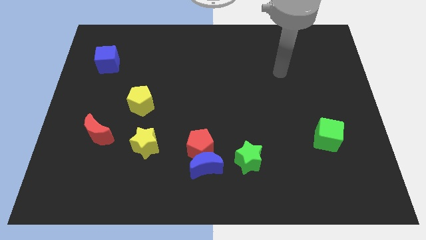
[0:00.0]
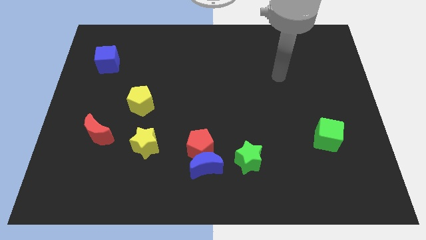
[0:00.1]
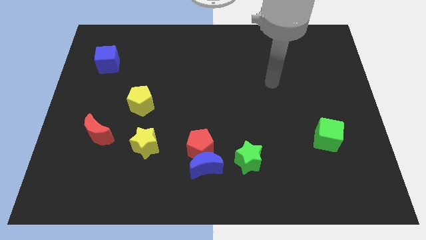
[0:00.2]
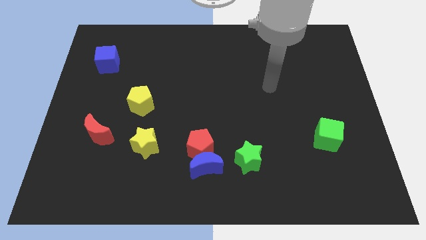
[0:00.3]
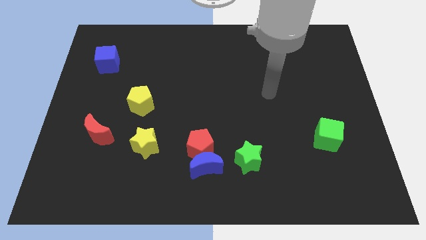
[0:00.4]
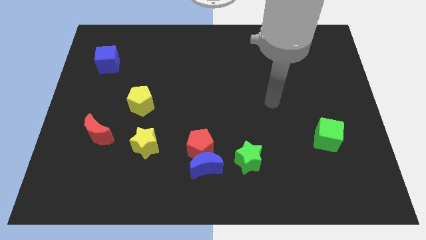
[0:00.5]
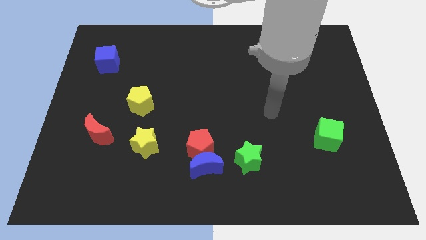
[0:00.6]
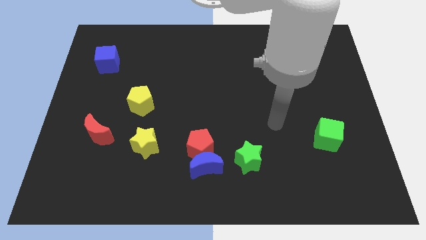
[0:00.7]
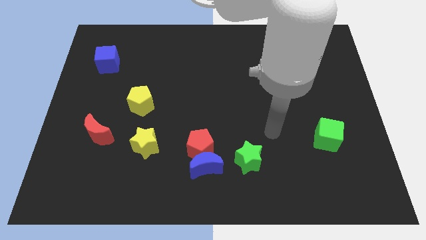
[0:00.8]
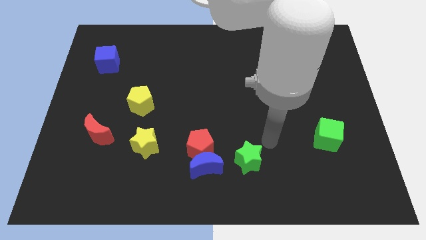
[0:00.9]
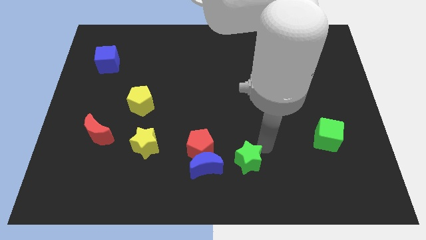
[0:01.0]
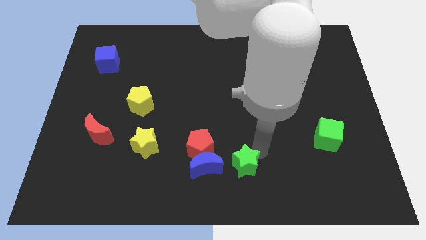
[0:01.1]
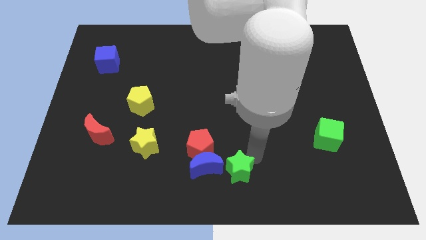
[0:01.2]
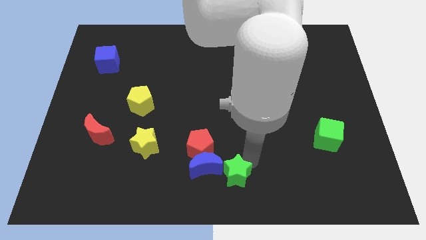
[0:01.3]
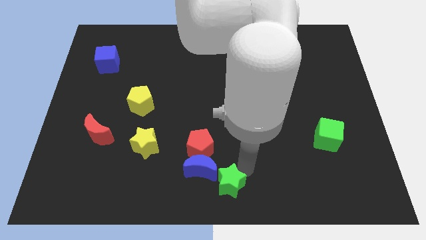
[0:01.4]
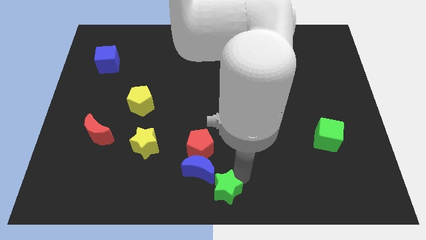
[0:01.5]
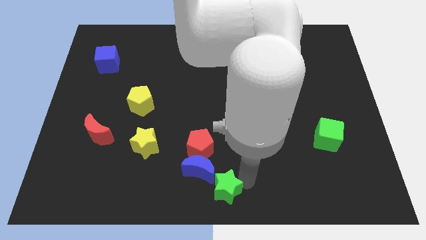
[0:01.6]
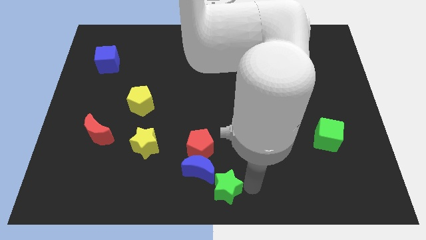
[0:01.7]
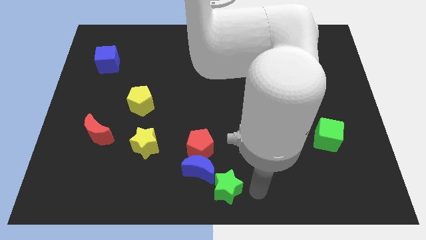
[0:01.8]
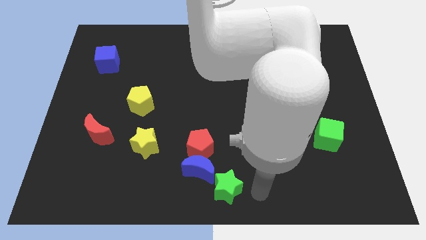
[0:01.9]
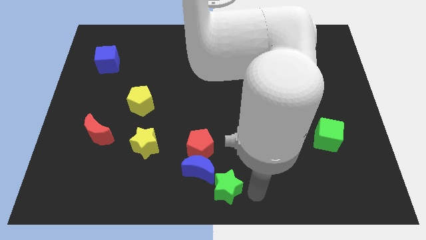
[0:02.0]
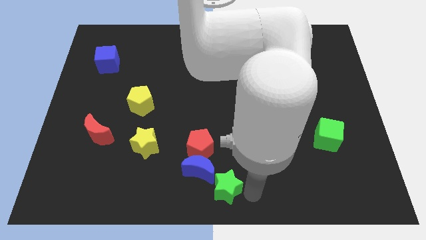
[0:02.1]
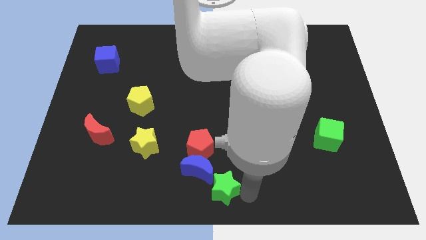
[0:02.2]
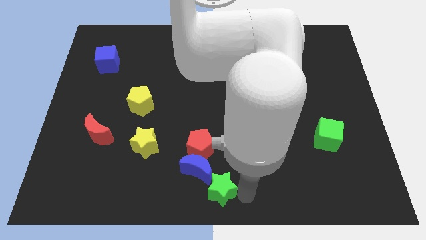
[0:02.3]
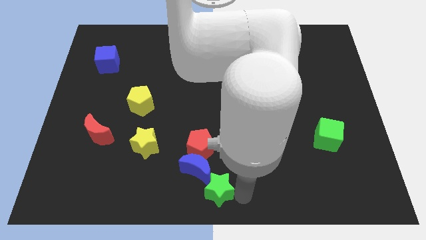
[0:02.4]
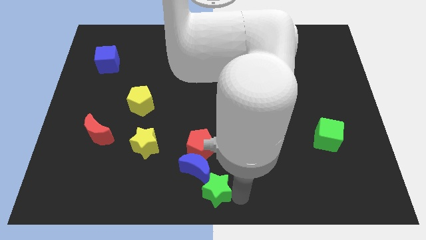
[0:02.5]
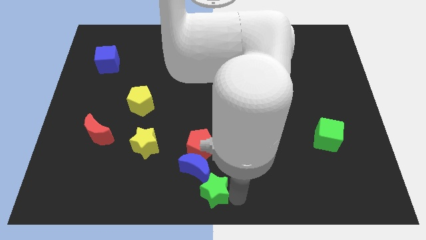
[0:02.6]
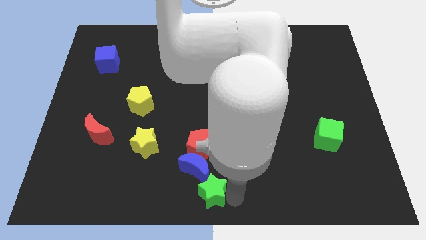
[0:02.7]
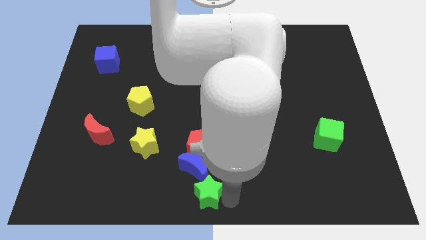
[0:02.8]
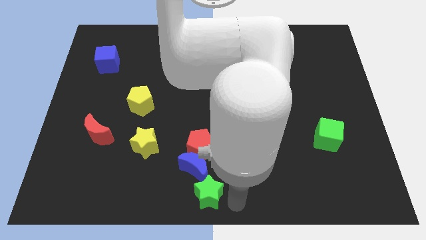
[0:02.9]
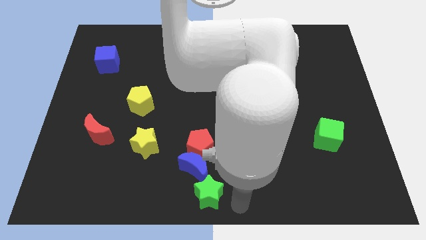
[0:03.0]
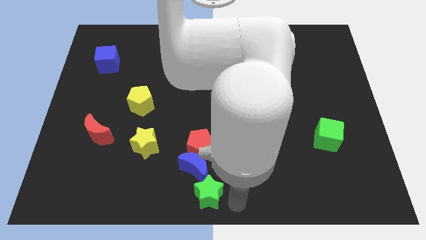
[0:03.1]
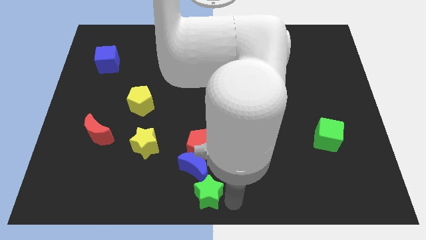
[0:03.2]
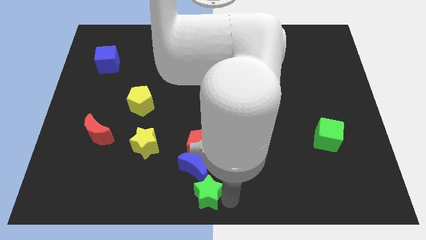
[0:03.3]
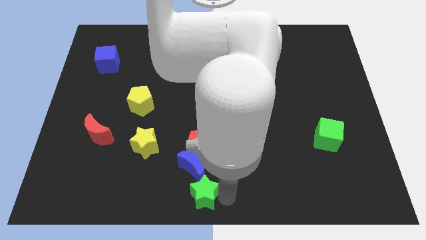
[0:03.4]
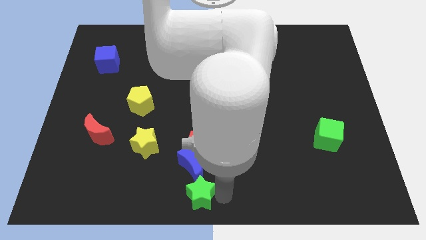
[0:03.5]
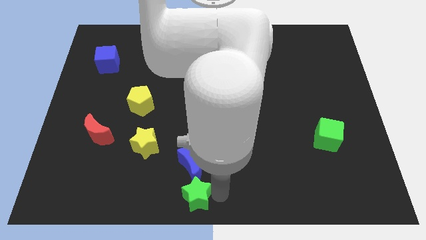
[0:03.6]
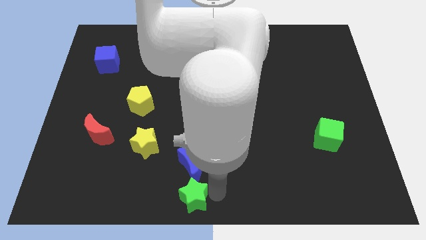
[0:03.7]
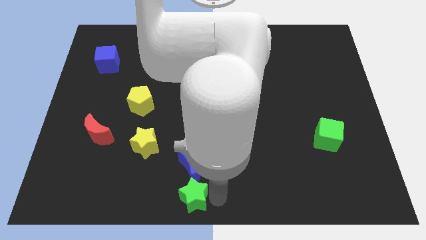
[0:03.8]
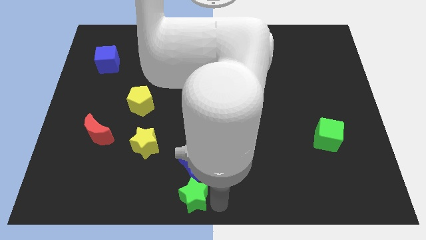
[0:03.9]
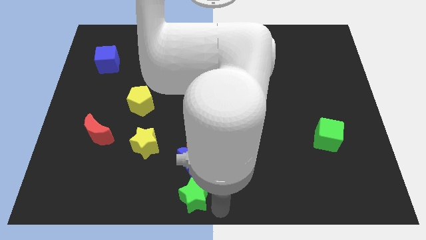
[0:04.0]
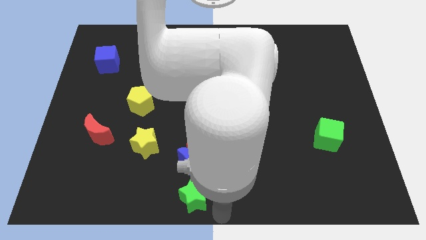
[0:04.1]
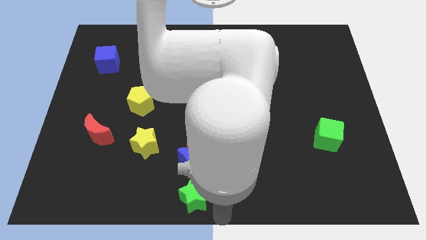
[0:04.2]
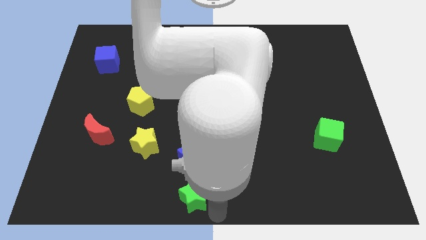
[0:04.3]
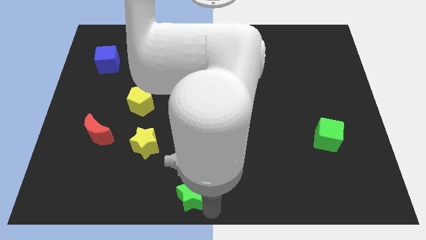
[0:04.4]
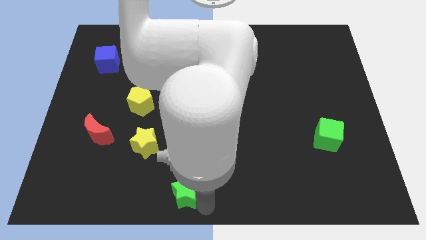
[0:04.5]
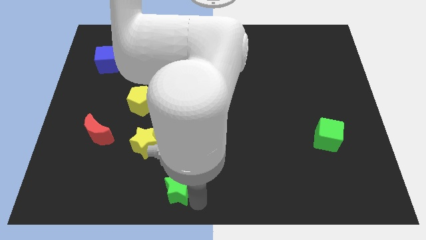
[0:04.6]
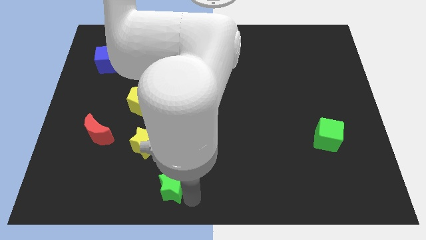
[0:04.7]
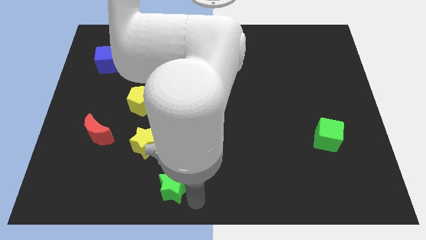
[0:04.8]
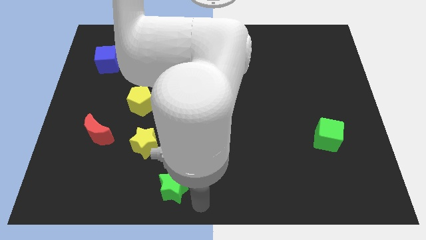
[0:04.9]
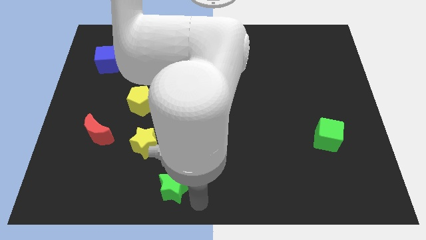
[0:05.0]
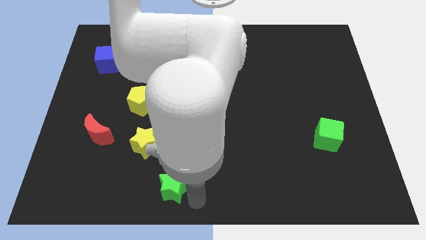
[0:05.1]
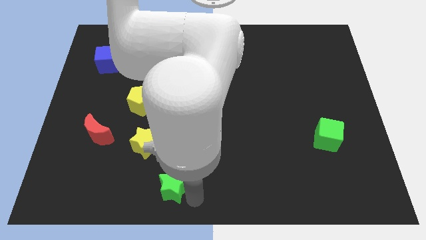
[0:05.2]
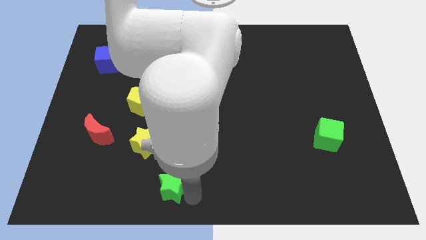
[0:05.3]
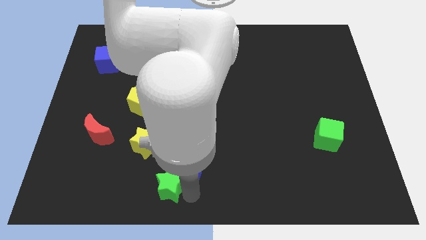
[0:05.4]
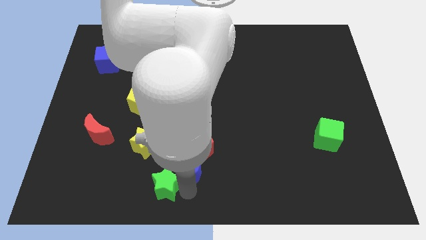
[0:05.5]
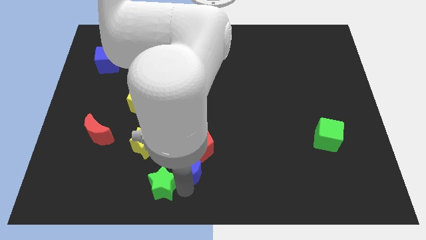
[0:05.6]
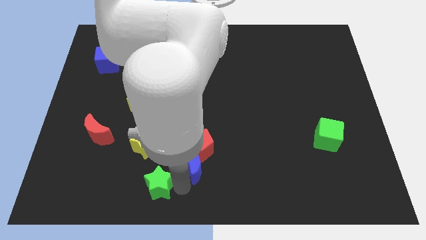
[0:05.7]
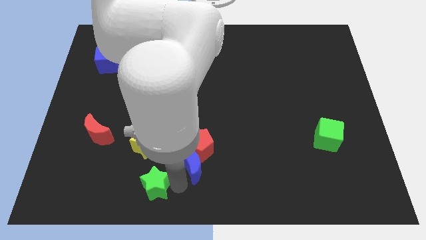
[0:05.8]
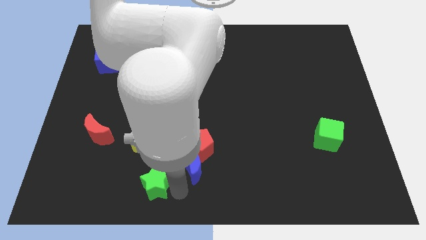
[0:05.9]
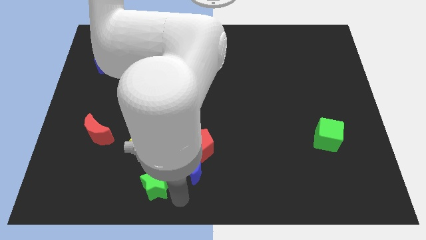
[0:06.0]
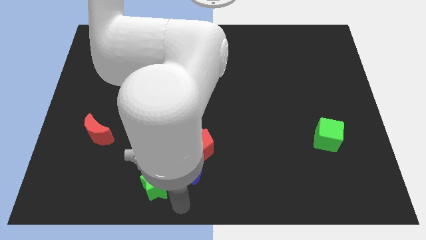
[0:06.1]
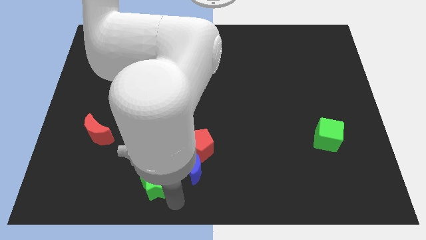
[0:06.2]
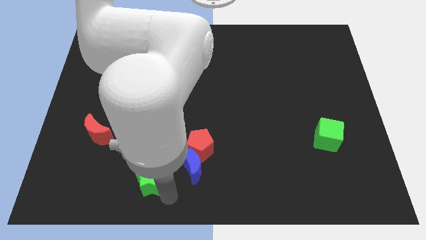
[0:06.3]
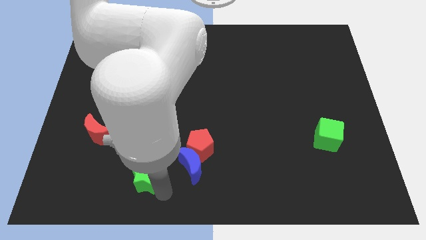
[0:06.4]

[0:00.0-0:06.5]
push the green star to the left

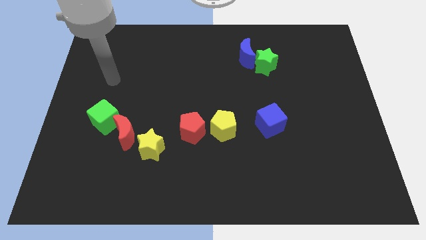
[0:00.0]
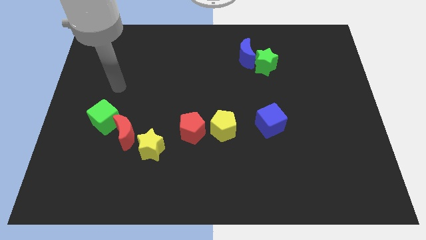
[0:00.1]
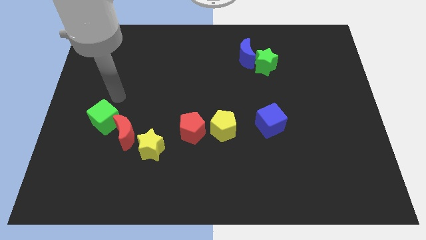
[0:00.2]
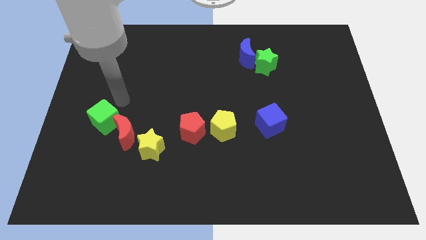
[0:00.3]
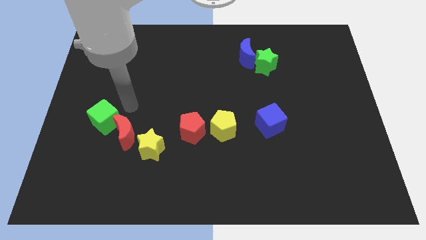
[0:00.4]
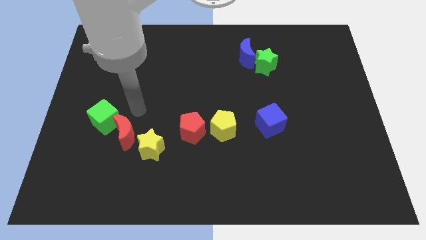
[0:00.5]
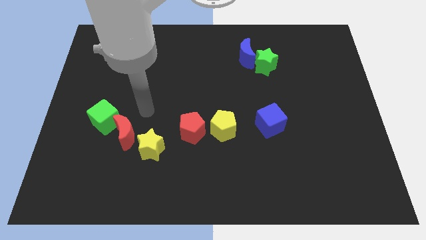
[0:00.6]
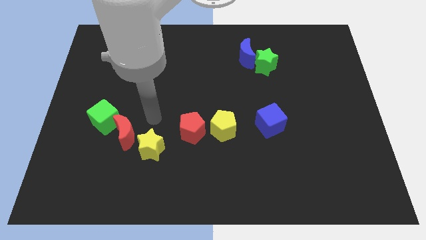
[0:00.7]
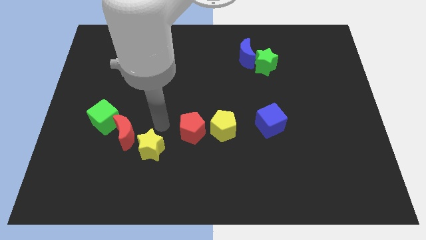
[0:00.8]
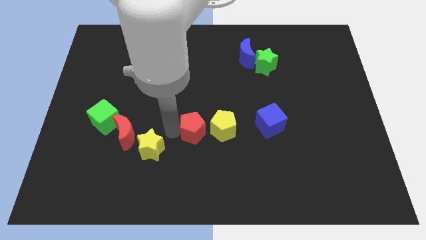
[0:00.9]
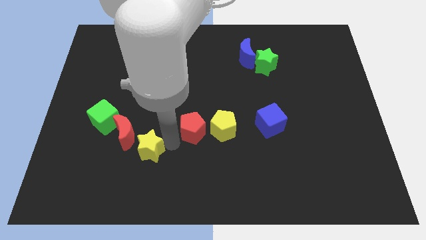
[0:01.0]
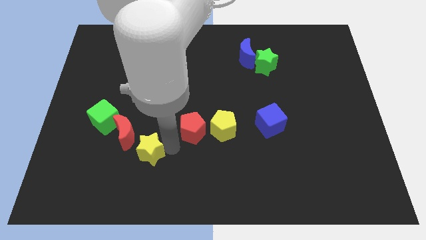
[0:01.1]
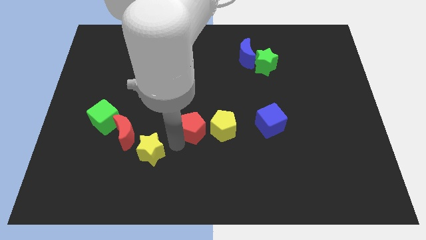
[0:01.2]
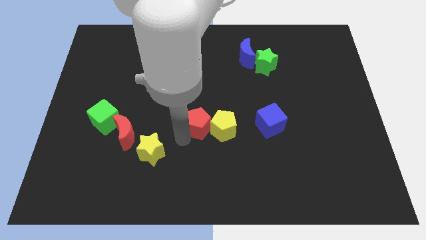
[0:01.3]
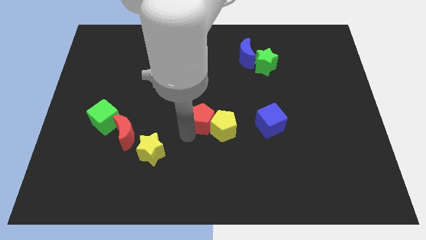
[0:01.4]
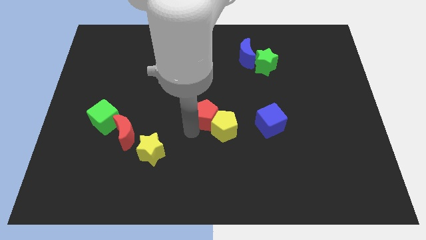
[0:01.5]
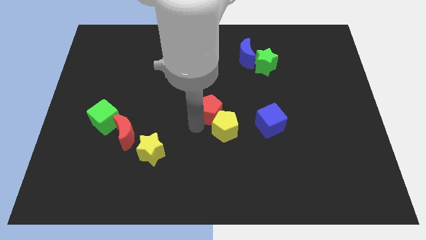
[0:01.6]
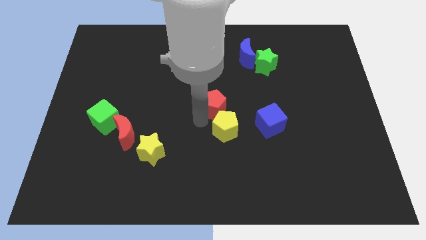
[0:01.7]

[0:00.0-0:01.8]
slightly slide the red pentagon upwards and to the right diagonally
